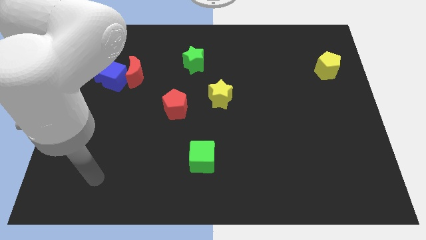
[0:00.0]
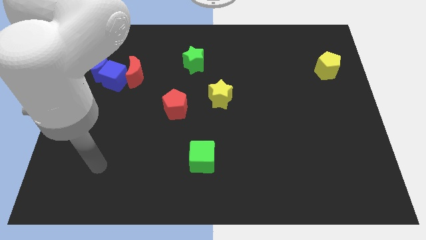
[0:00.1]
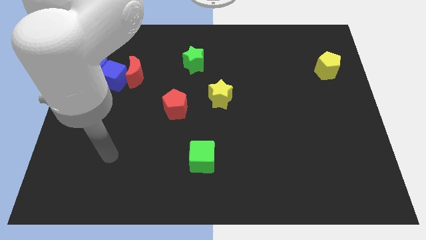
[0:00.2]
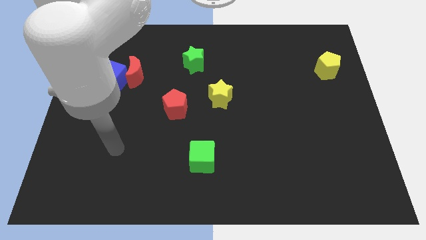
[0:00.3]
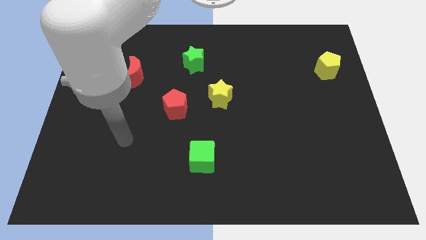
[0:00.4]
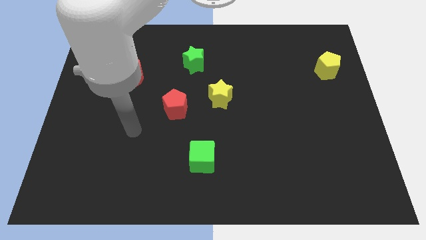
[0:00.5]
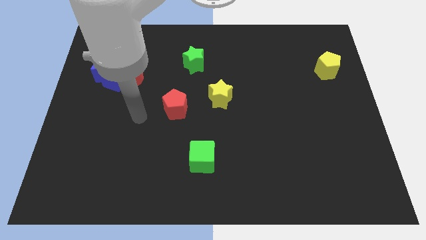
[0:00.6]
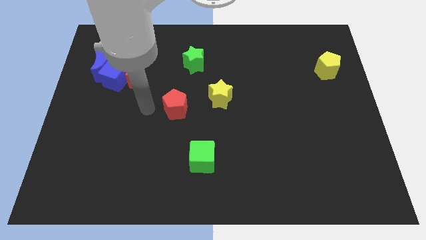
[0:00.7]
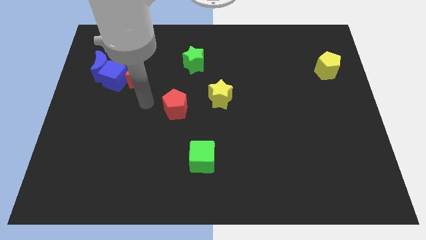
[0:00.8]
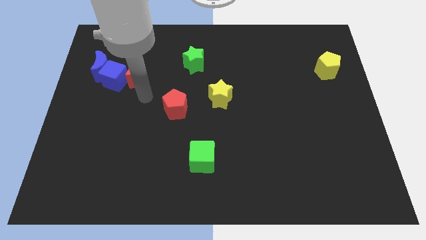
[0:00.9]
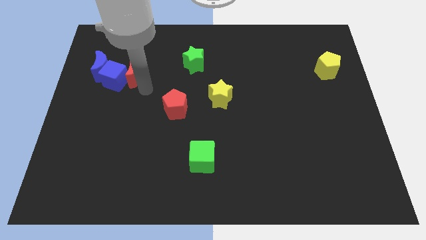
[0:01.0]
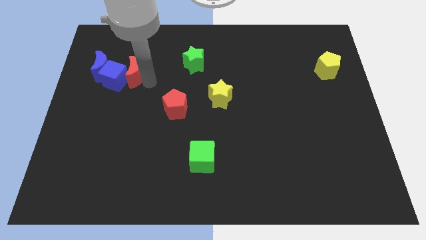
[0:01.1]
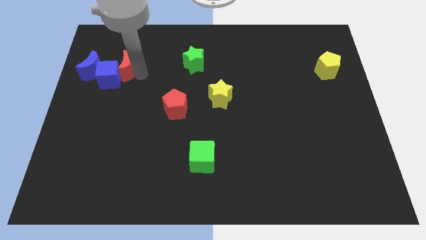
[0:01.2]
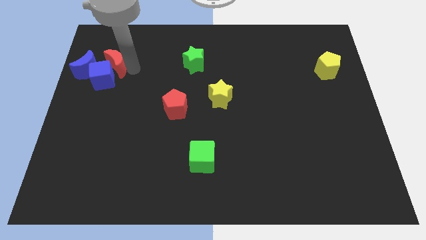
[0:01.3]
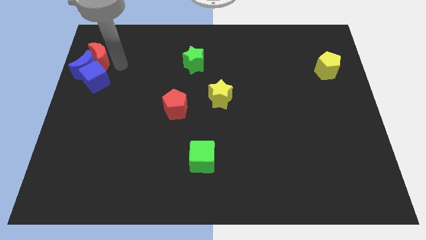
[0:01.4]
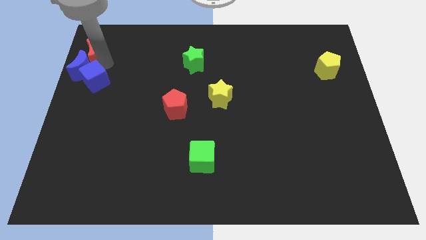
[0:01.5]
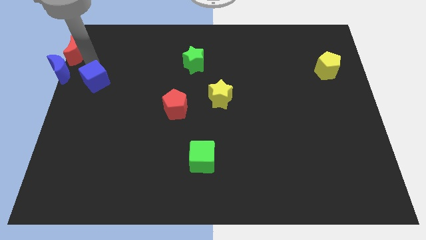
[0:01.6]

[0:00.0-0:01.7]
separate the blue cube from the blue moon and red moon

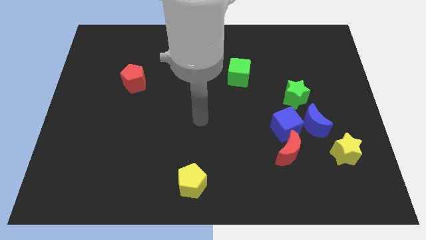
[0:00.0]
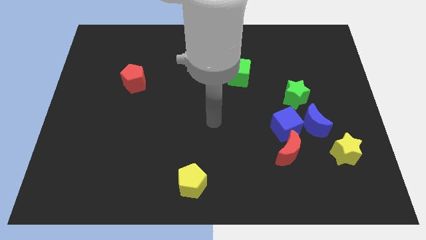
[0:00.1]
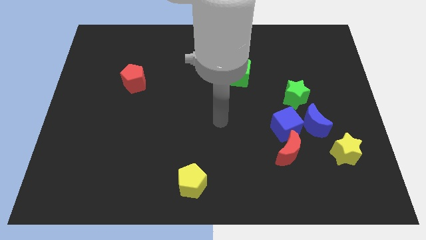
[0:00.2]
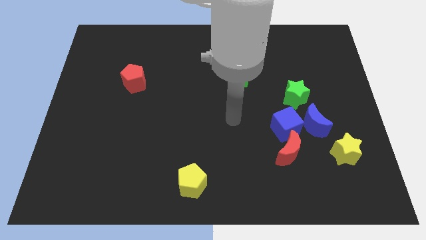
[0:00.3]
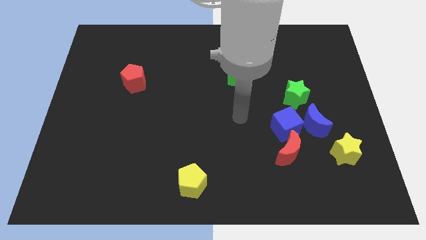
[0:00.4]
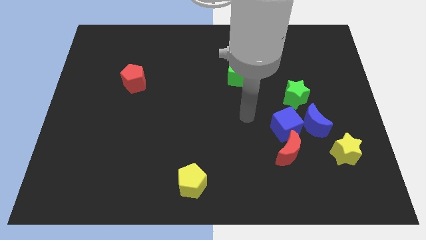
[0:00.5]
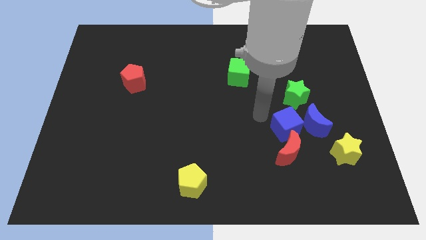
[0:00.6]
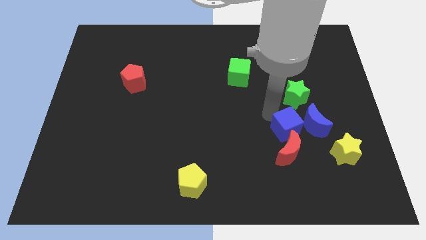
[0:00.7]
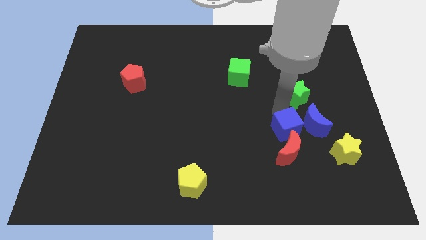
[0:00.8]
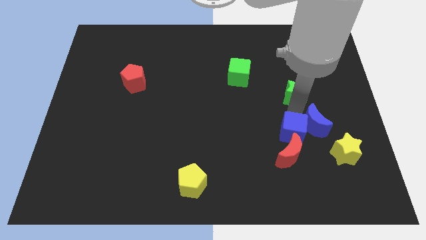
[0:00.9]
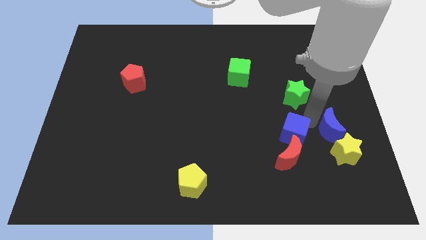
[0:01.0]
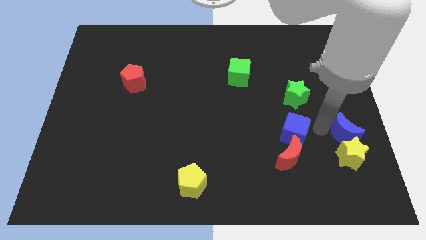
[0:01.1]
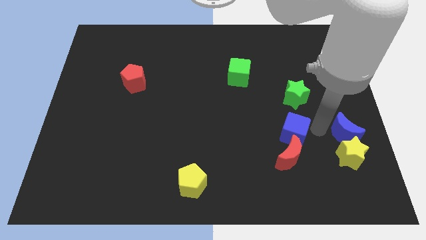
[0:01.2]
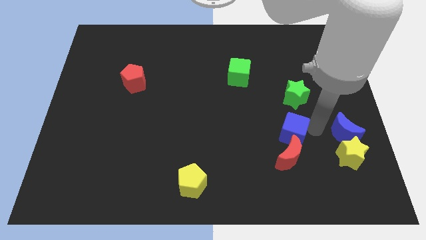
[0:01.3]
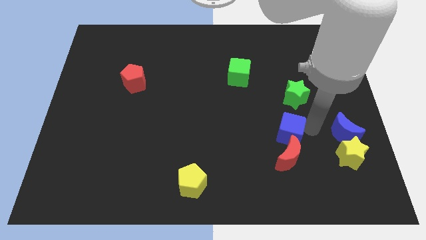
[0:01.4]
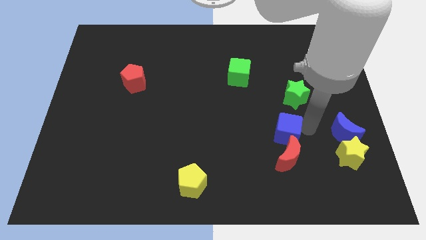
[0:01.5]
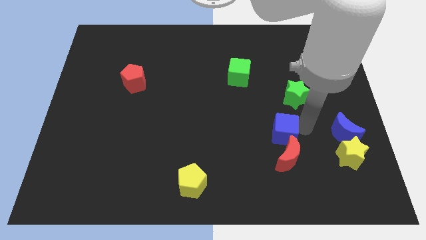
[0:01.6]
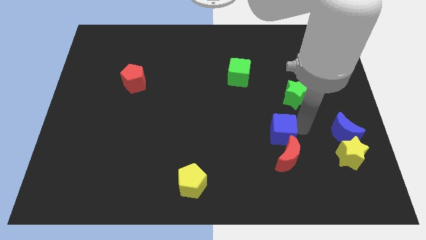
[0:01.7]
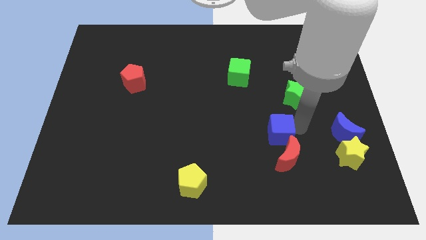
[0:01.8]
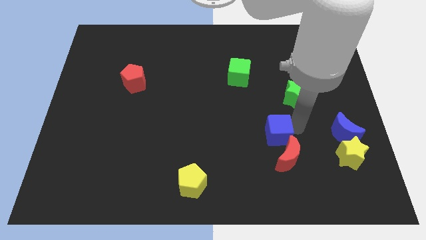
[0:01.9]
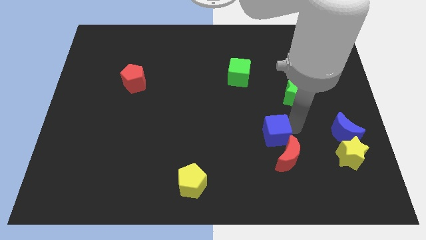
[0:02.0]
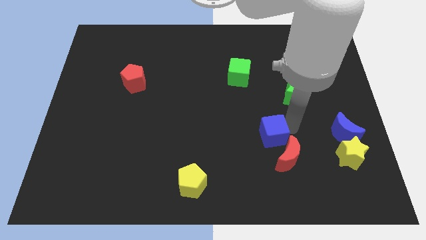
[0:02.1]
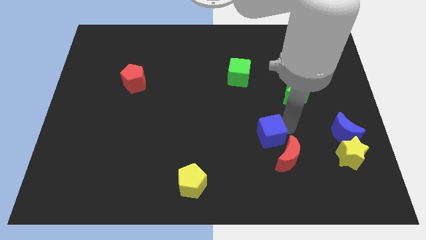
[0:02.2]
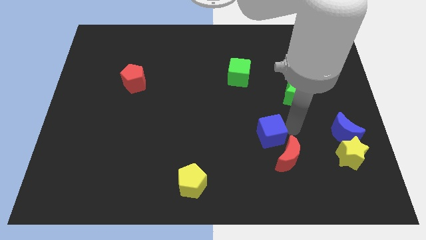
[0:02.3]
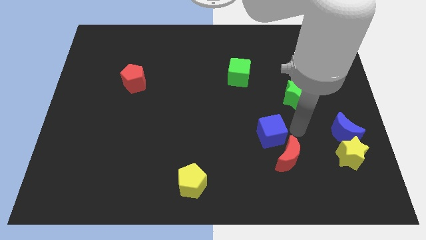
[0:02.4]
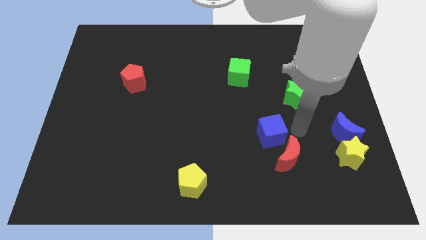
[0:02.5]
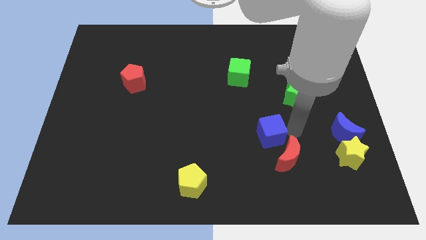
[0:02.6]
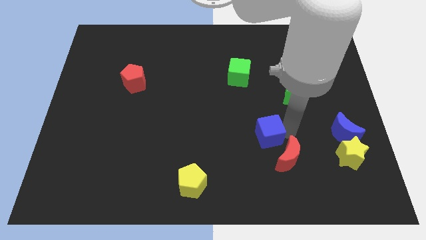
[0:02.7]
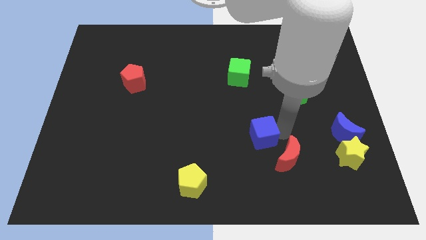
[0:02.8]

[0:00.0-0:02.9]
pull the blue cube apart from the group of blocks

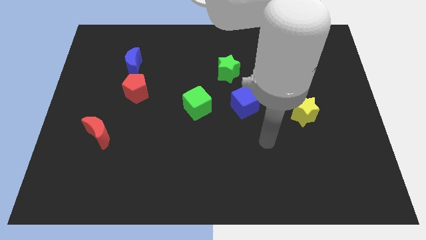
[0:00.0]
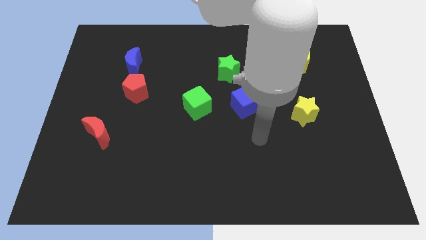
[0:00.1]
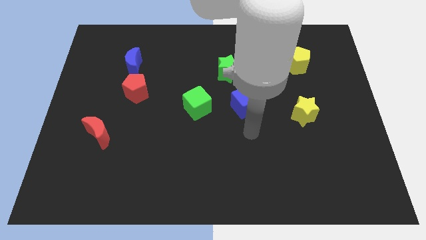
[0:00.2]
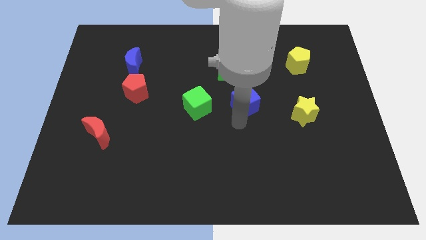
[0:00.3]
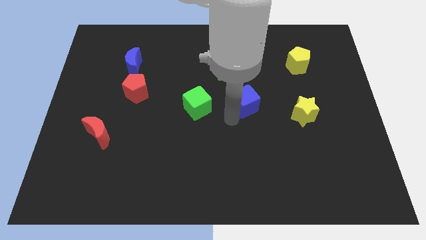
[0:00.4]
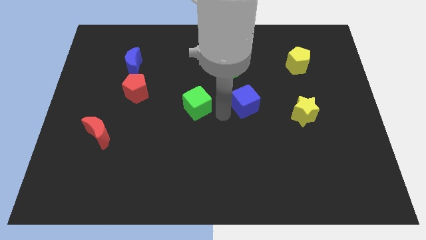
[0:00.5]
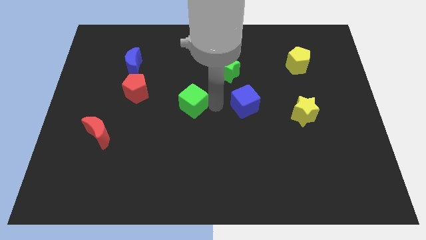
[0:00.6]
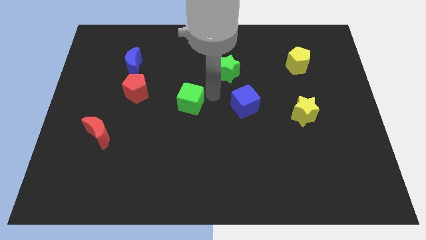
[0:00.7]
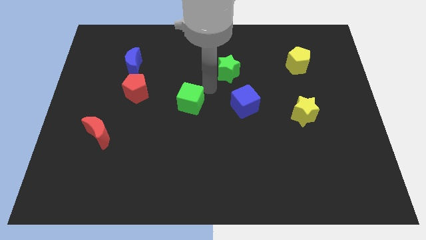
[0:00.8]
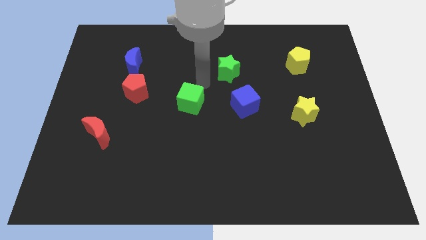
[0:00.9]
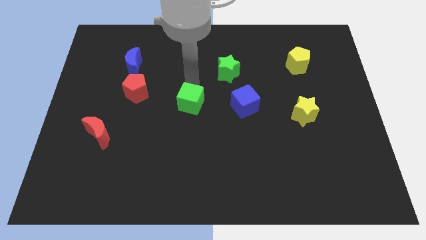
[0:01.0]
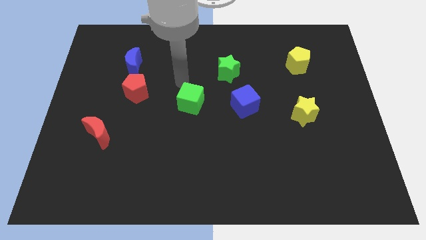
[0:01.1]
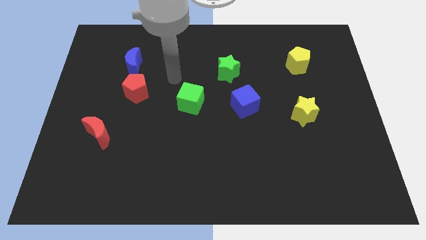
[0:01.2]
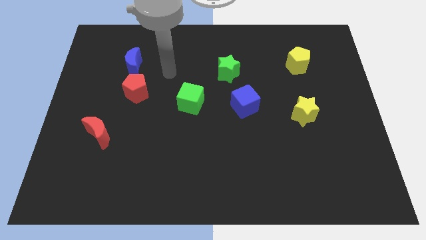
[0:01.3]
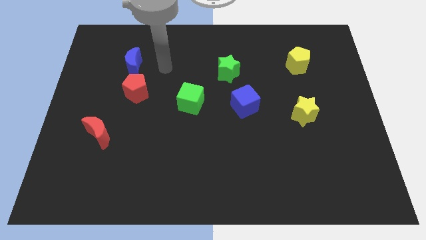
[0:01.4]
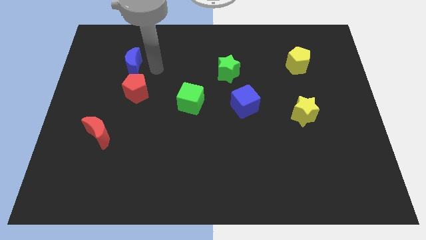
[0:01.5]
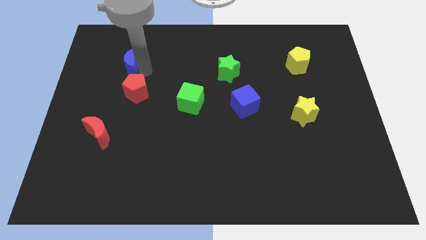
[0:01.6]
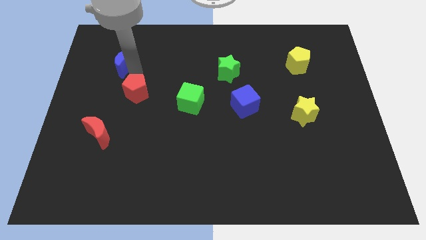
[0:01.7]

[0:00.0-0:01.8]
move the red pentagon away from the blue moon

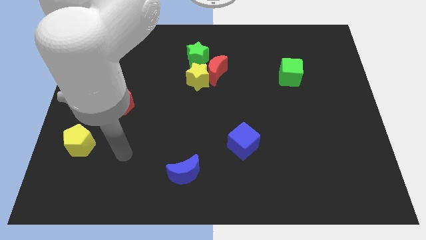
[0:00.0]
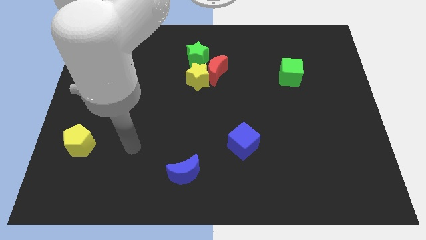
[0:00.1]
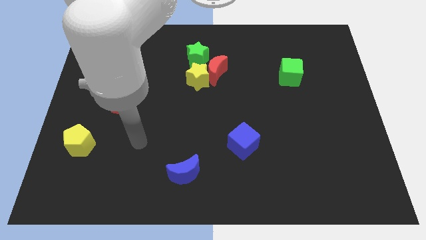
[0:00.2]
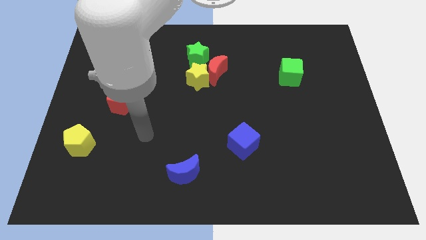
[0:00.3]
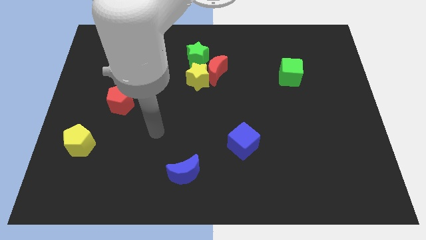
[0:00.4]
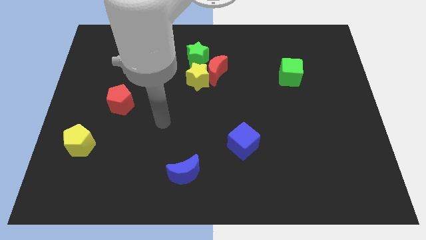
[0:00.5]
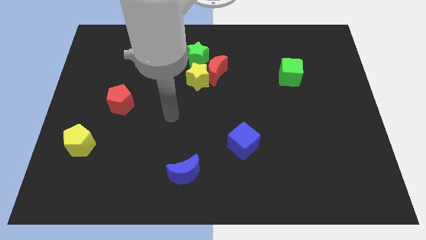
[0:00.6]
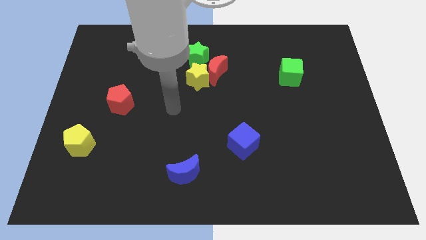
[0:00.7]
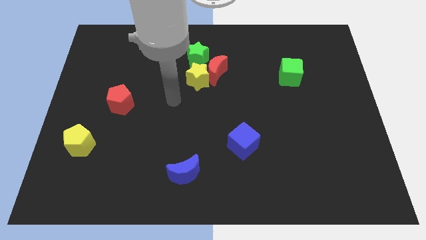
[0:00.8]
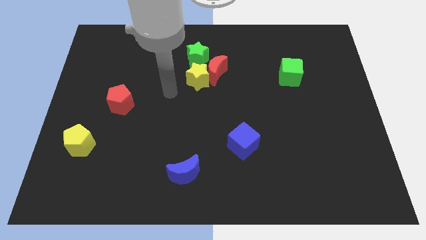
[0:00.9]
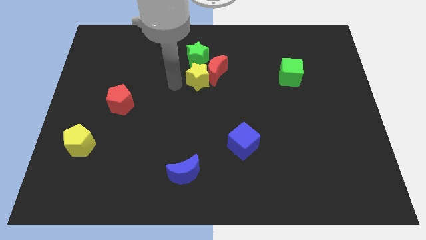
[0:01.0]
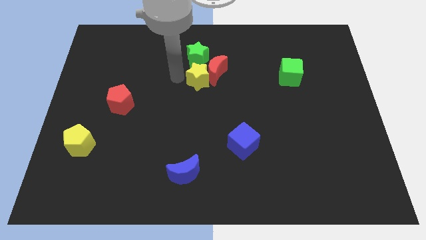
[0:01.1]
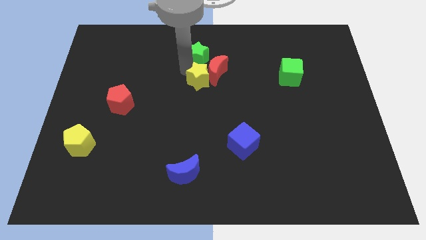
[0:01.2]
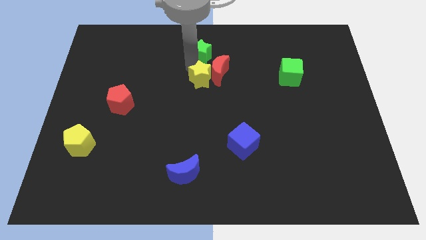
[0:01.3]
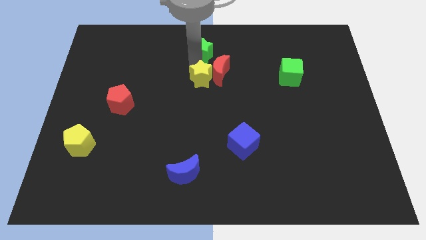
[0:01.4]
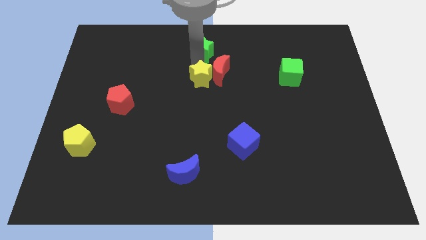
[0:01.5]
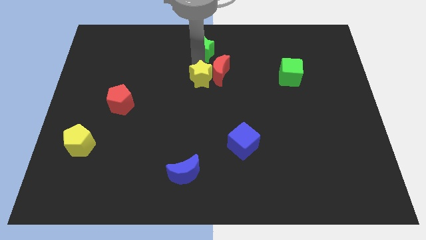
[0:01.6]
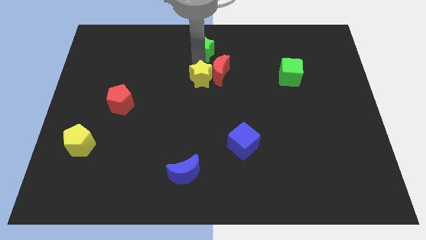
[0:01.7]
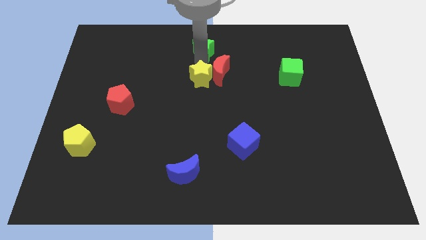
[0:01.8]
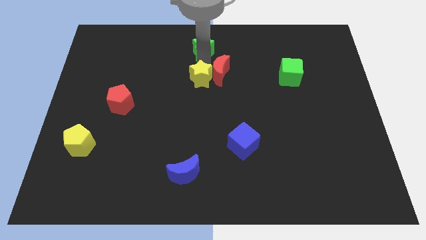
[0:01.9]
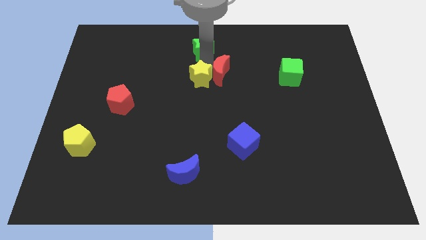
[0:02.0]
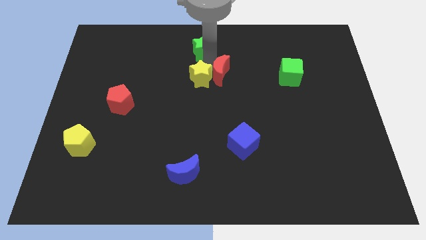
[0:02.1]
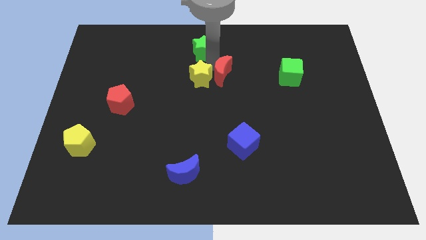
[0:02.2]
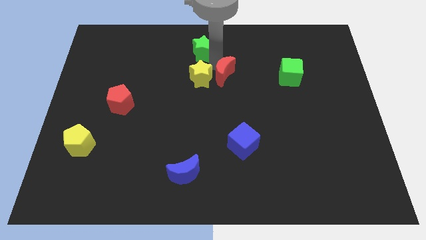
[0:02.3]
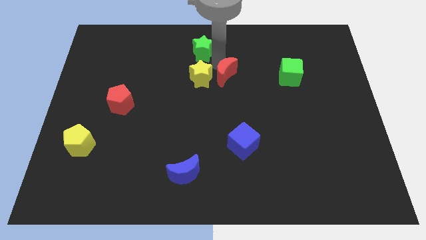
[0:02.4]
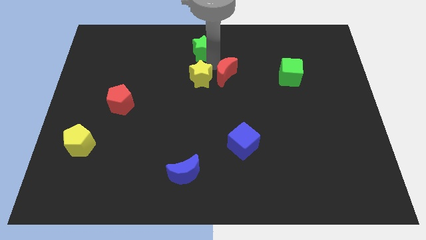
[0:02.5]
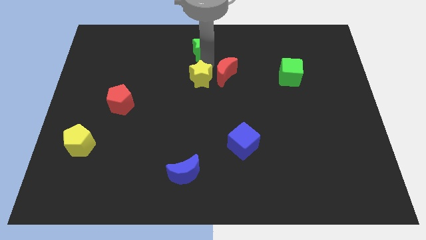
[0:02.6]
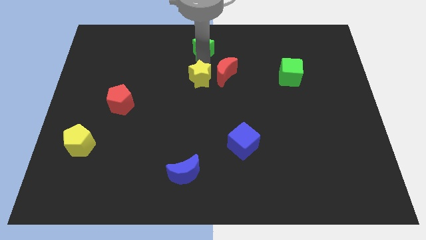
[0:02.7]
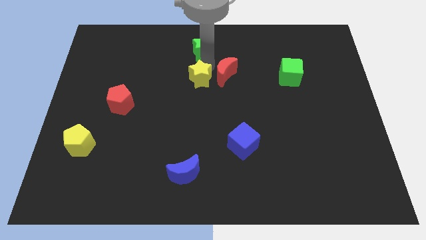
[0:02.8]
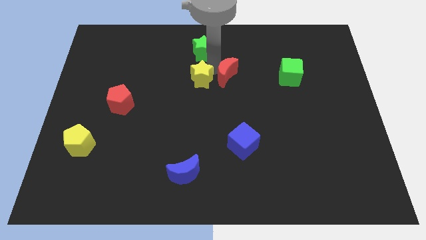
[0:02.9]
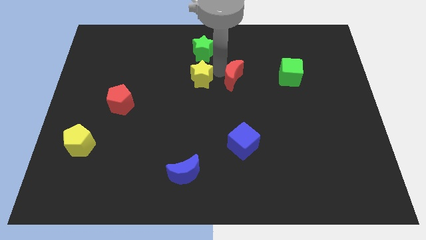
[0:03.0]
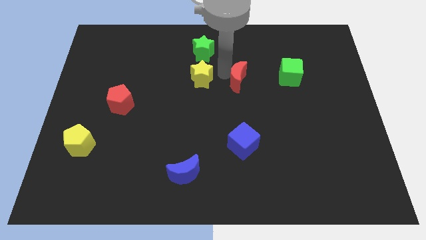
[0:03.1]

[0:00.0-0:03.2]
separate the red moon from the yellow star and green star
